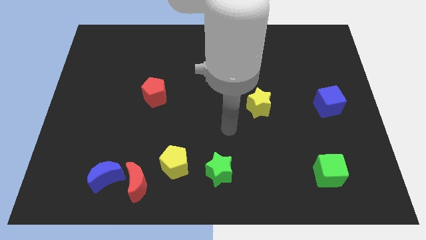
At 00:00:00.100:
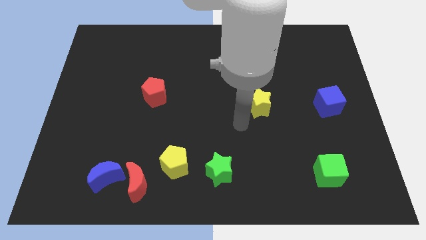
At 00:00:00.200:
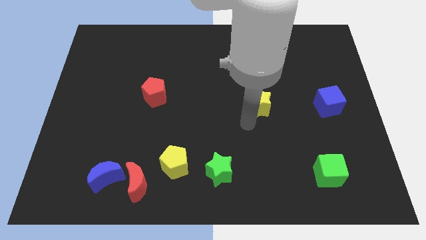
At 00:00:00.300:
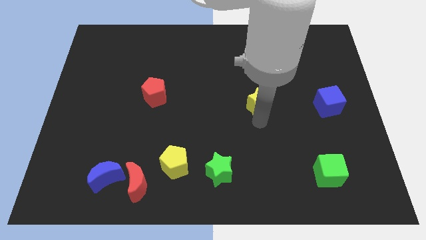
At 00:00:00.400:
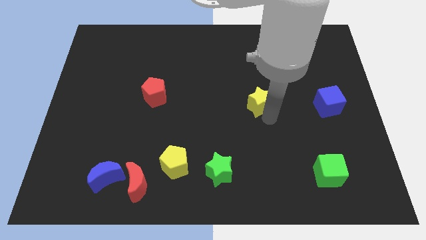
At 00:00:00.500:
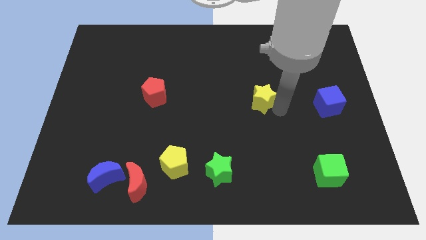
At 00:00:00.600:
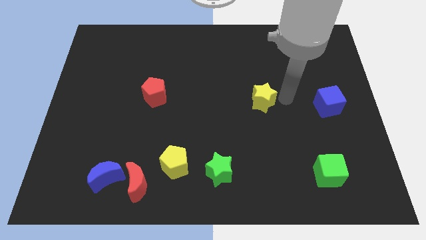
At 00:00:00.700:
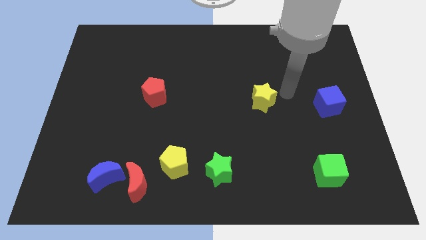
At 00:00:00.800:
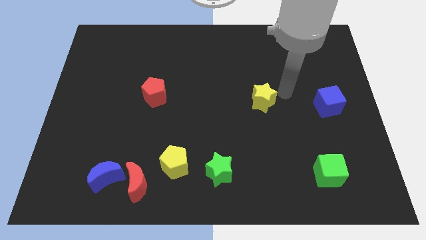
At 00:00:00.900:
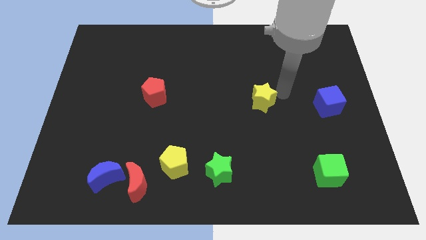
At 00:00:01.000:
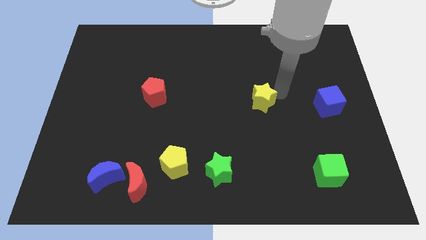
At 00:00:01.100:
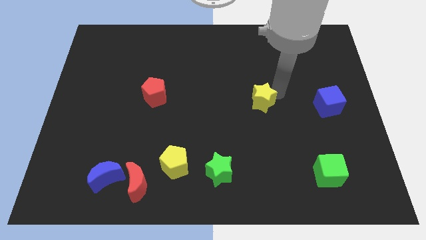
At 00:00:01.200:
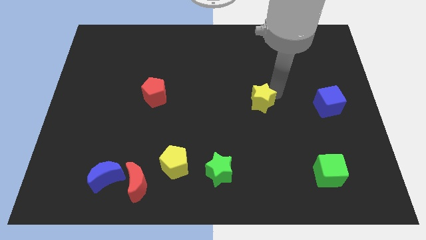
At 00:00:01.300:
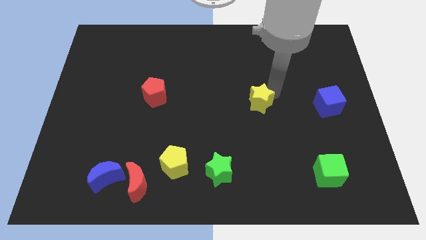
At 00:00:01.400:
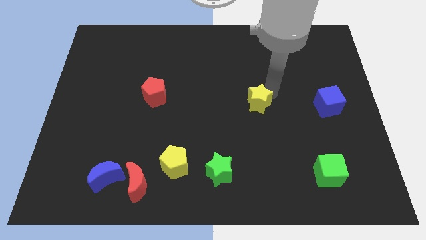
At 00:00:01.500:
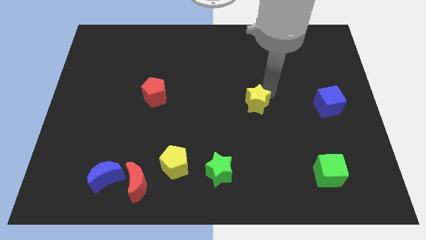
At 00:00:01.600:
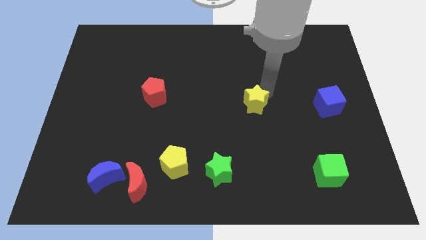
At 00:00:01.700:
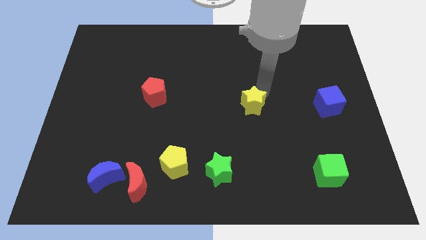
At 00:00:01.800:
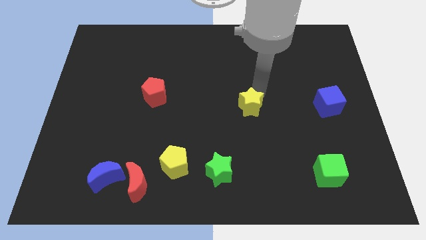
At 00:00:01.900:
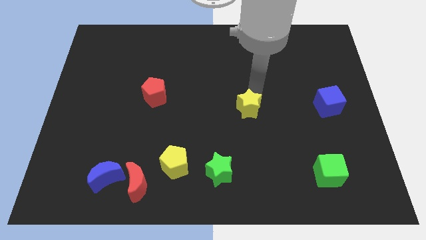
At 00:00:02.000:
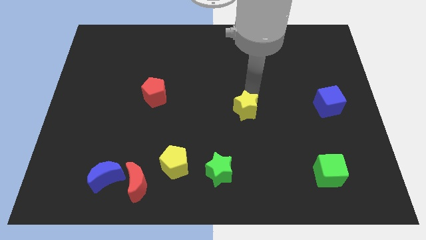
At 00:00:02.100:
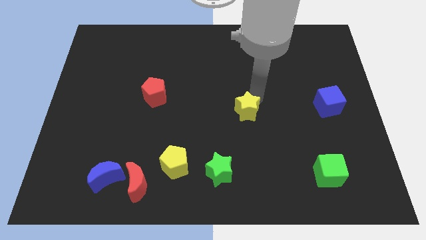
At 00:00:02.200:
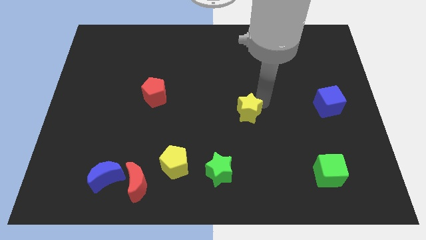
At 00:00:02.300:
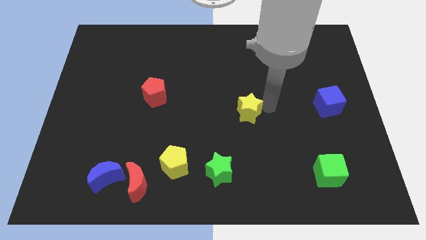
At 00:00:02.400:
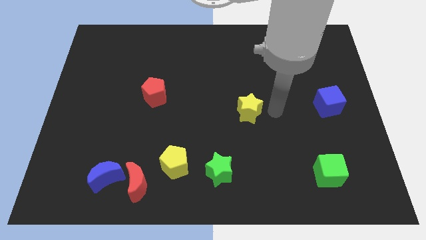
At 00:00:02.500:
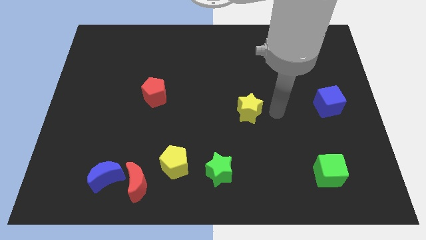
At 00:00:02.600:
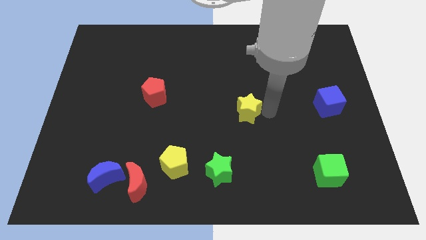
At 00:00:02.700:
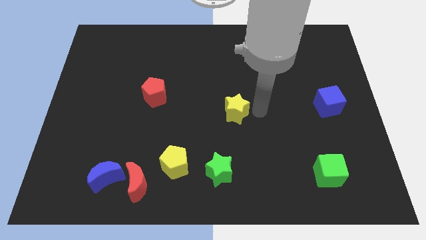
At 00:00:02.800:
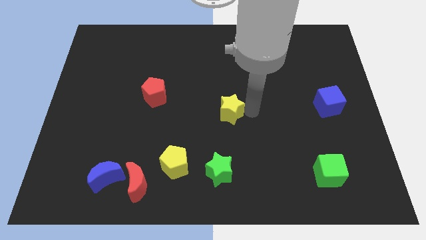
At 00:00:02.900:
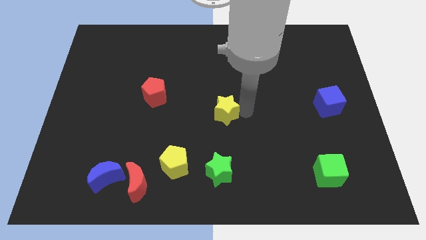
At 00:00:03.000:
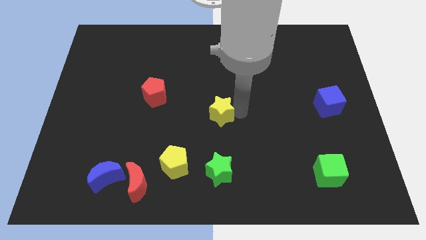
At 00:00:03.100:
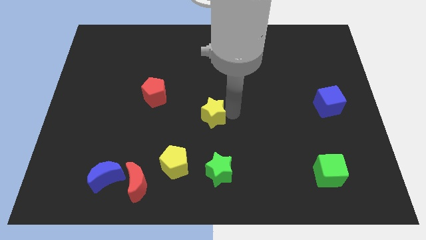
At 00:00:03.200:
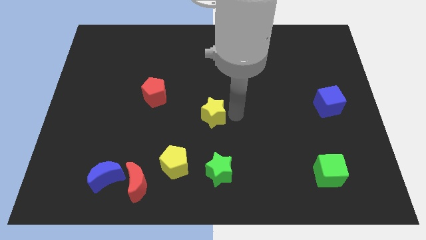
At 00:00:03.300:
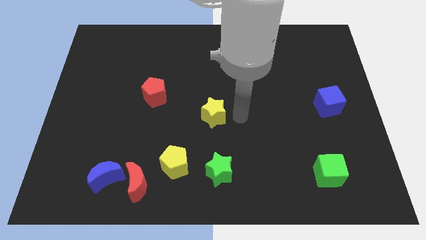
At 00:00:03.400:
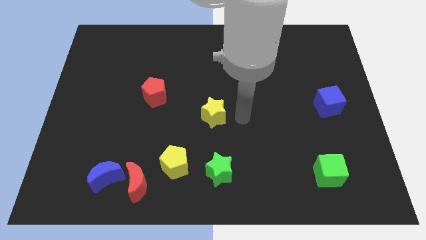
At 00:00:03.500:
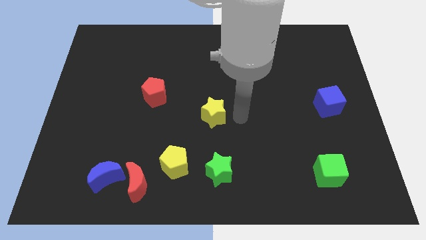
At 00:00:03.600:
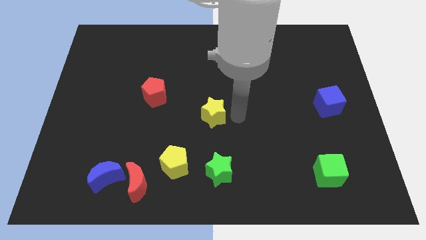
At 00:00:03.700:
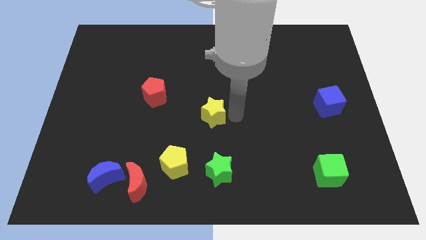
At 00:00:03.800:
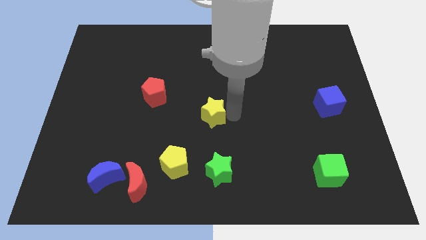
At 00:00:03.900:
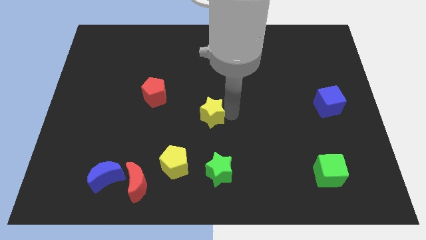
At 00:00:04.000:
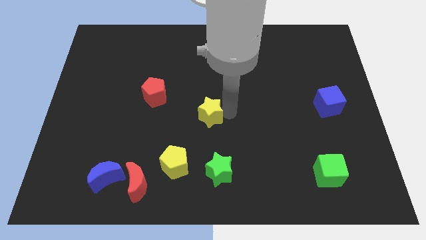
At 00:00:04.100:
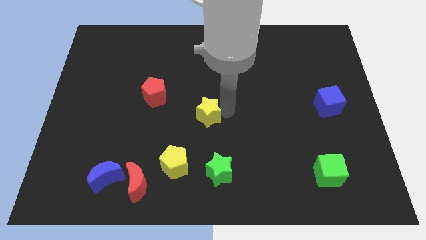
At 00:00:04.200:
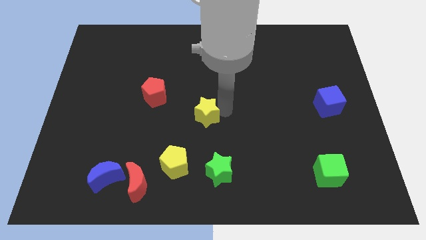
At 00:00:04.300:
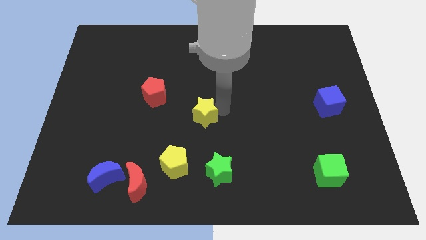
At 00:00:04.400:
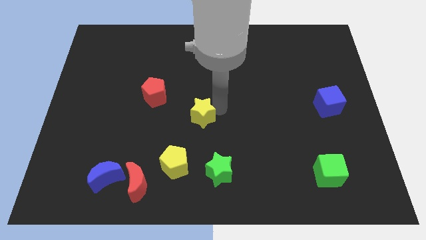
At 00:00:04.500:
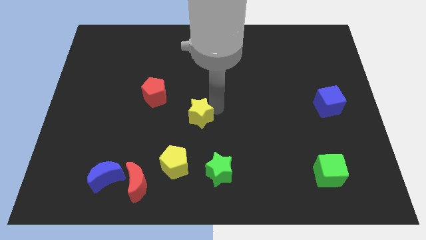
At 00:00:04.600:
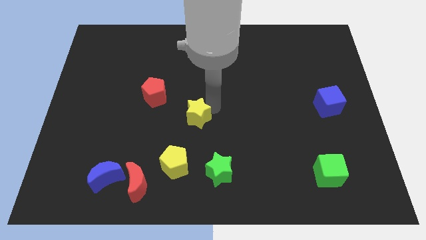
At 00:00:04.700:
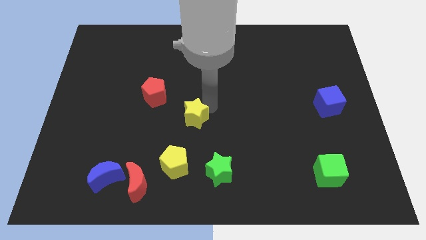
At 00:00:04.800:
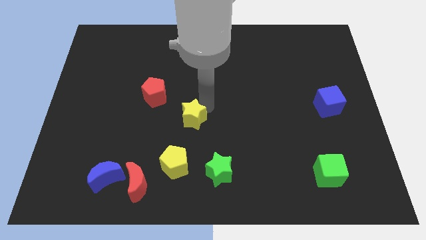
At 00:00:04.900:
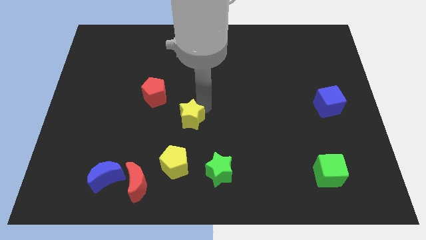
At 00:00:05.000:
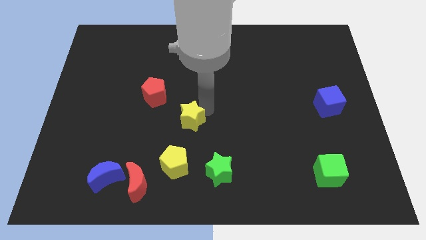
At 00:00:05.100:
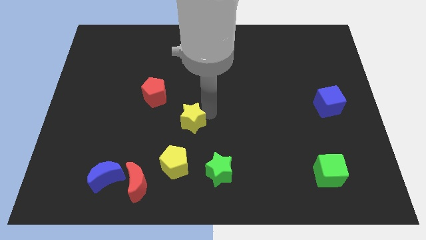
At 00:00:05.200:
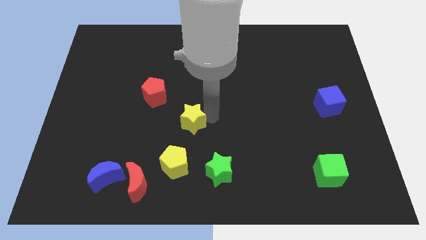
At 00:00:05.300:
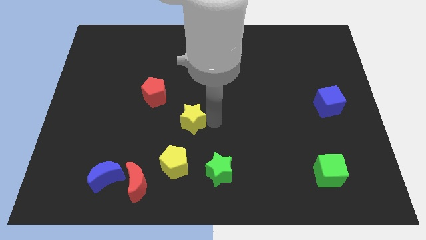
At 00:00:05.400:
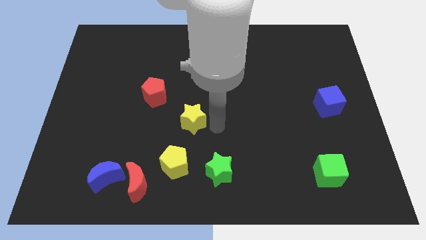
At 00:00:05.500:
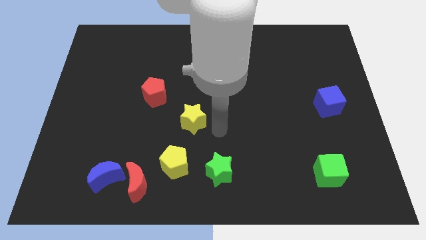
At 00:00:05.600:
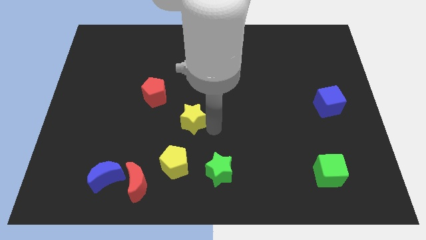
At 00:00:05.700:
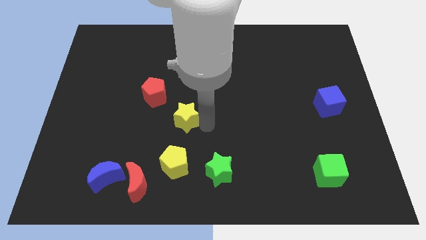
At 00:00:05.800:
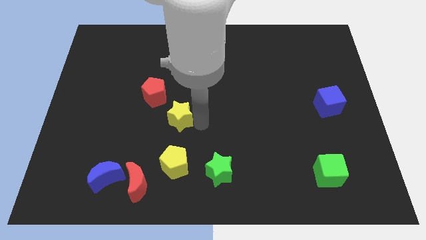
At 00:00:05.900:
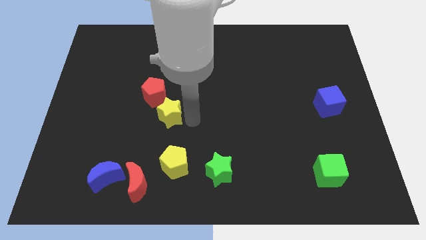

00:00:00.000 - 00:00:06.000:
push the yellow star to the left
